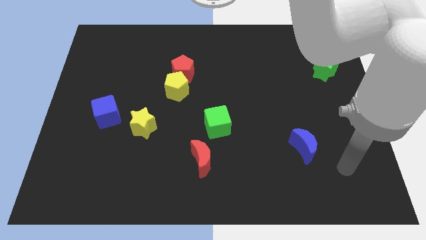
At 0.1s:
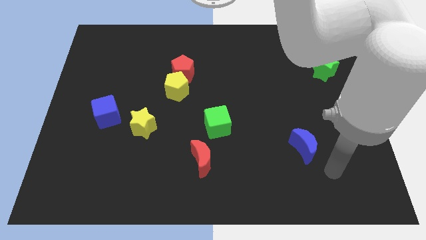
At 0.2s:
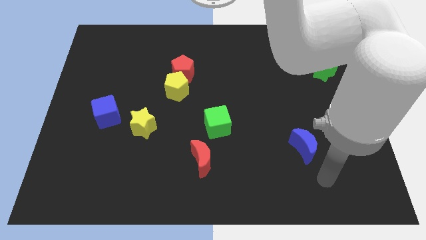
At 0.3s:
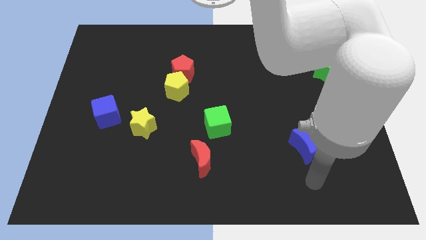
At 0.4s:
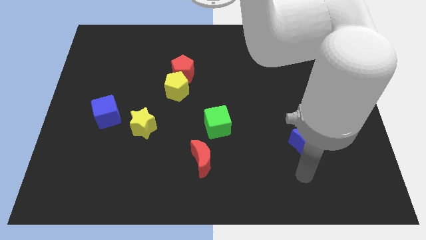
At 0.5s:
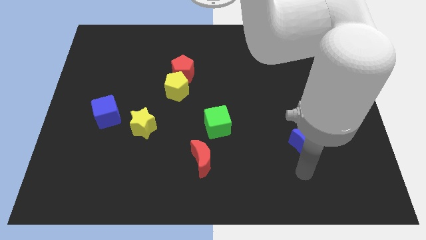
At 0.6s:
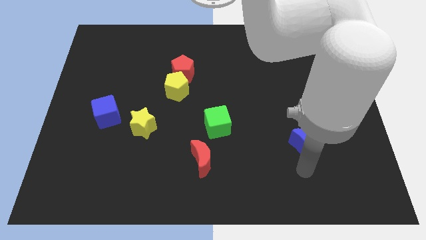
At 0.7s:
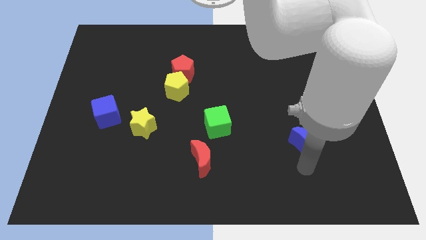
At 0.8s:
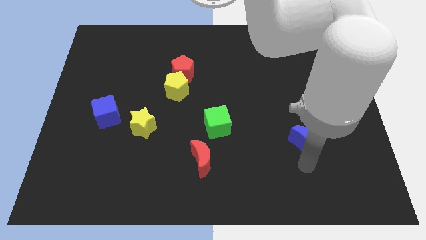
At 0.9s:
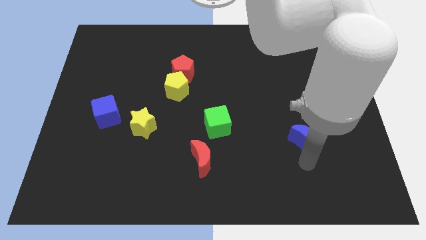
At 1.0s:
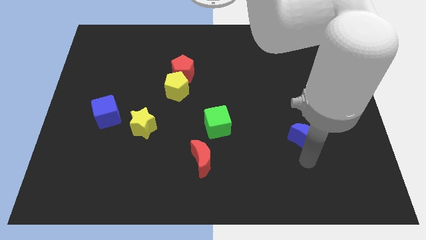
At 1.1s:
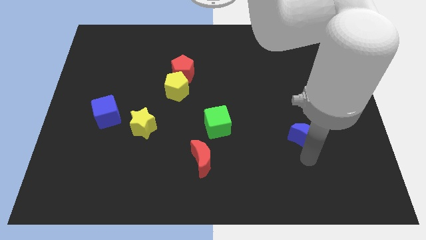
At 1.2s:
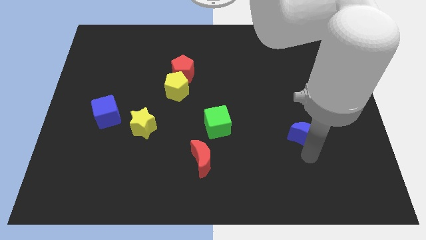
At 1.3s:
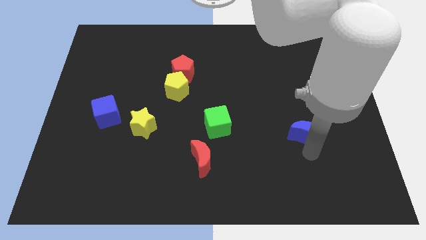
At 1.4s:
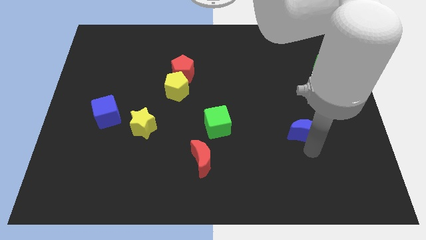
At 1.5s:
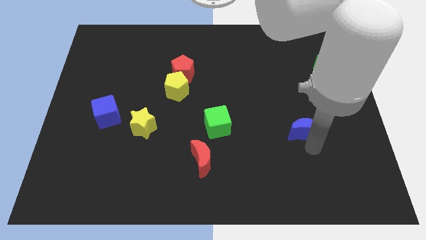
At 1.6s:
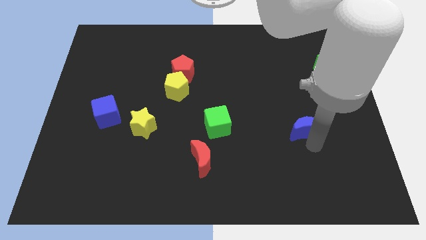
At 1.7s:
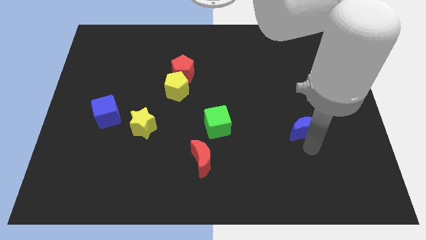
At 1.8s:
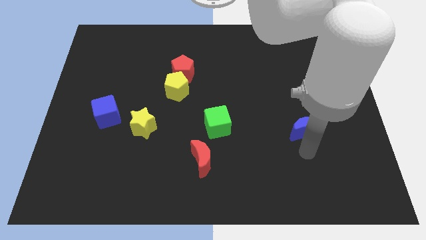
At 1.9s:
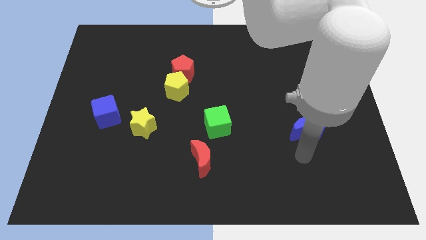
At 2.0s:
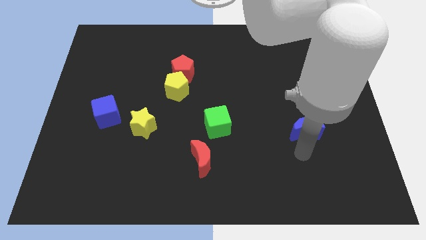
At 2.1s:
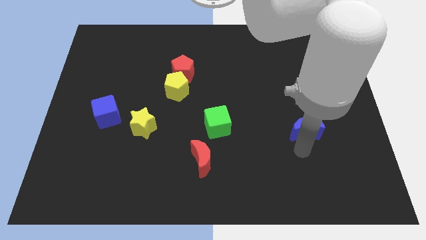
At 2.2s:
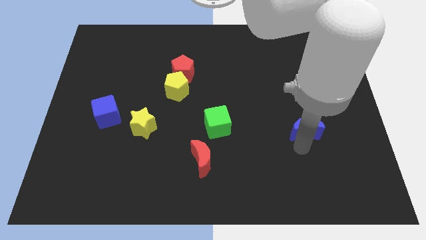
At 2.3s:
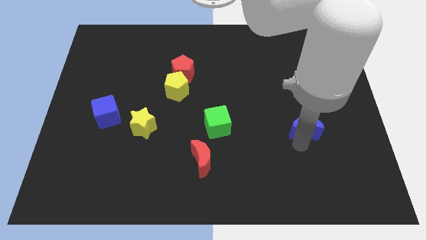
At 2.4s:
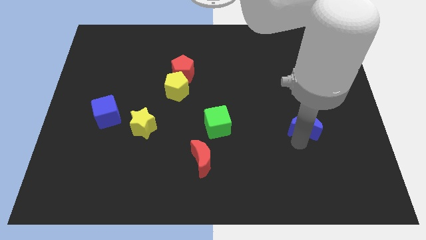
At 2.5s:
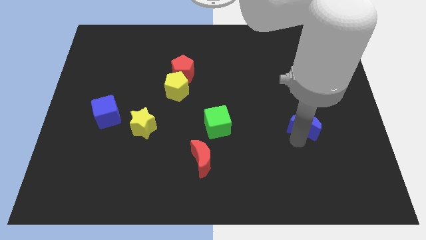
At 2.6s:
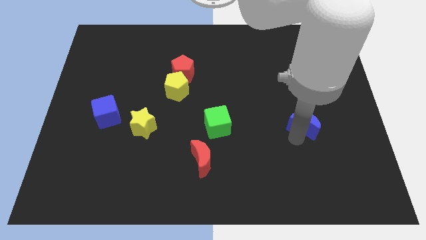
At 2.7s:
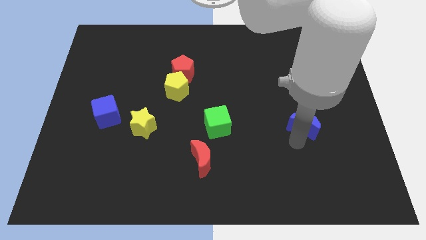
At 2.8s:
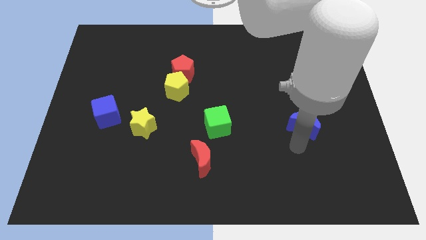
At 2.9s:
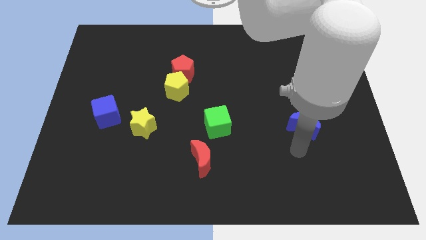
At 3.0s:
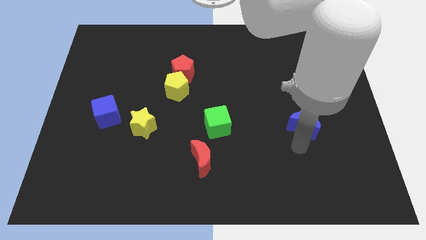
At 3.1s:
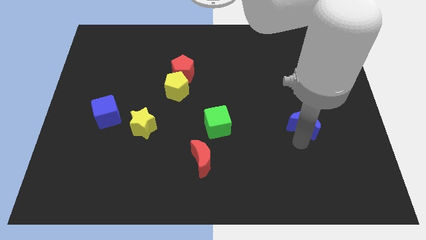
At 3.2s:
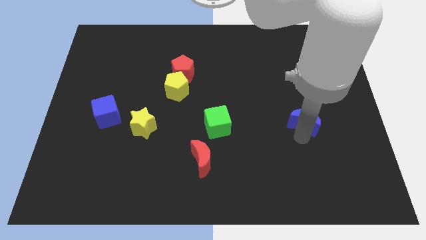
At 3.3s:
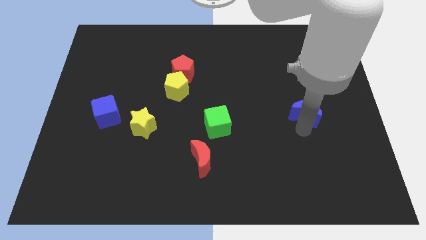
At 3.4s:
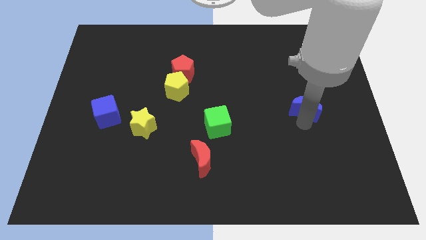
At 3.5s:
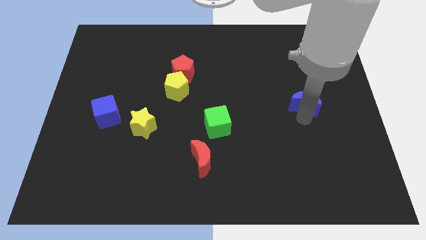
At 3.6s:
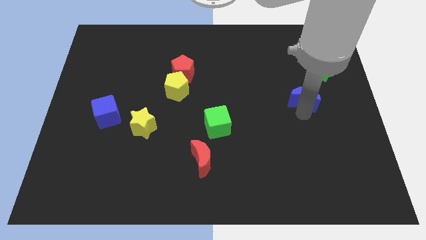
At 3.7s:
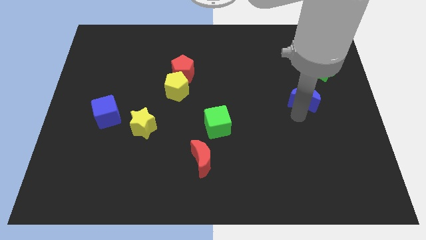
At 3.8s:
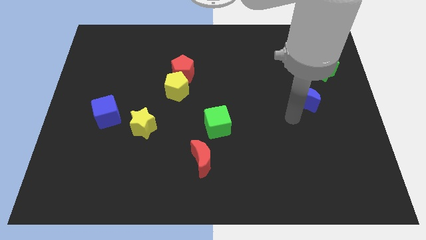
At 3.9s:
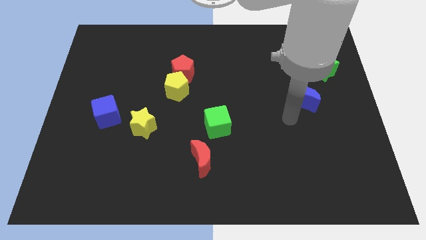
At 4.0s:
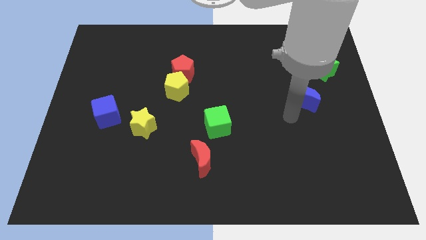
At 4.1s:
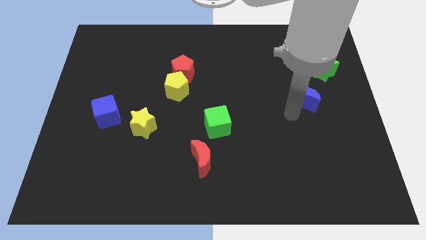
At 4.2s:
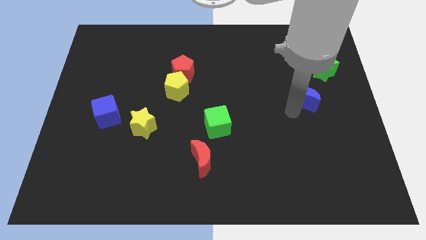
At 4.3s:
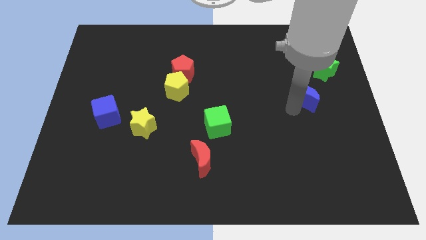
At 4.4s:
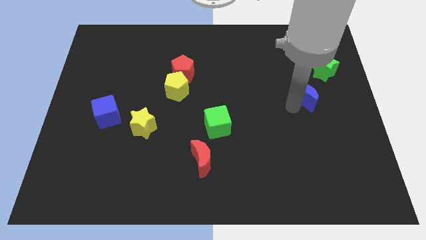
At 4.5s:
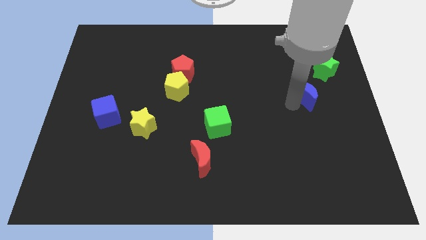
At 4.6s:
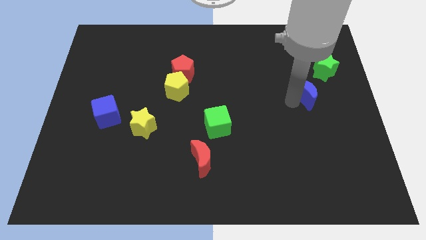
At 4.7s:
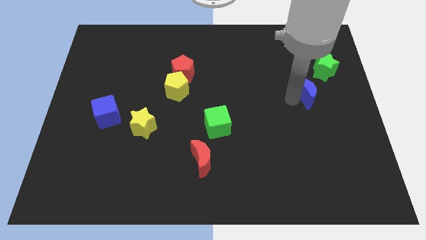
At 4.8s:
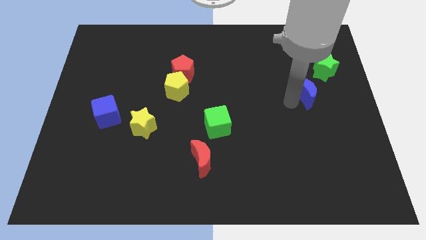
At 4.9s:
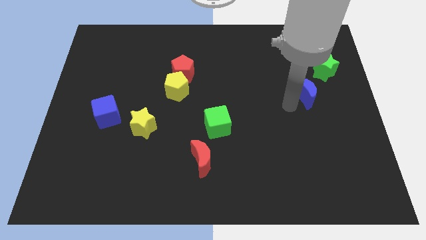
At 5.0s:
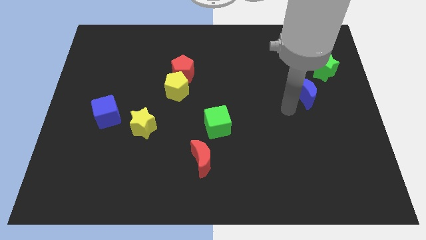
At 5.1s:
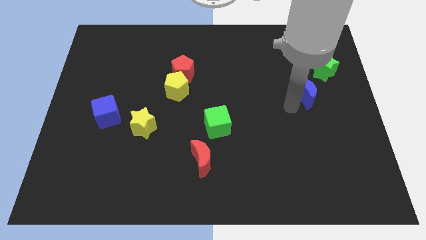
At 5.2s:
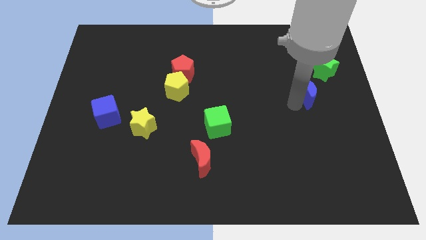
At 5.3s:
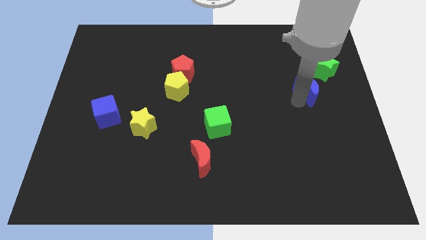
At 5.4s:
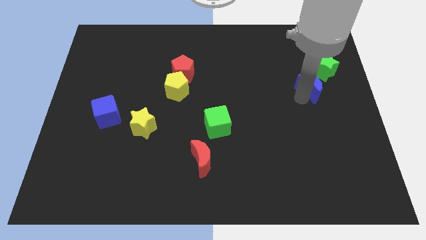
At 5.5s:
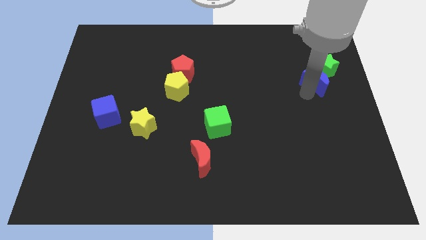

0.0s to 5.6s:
move the blue moon towards the green star

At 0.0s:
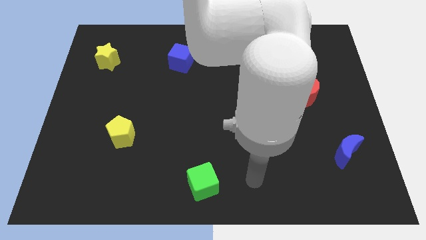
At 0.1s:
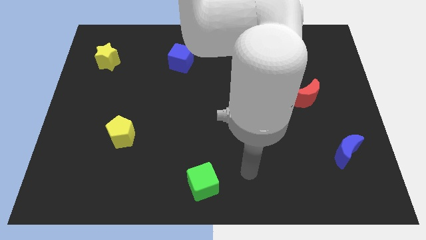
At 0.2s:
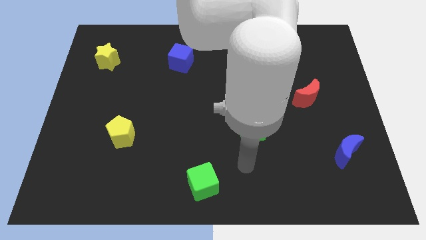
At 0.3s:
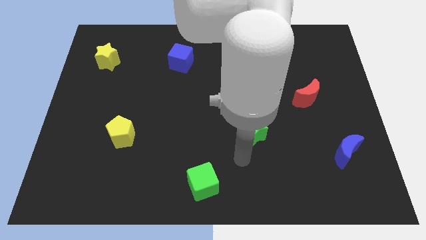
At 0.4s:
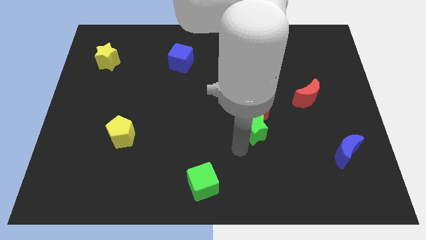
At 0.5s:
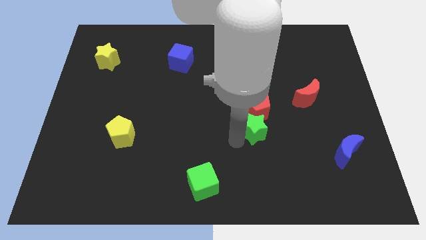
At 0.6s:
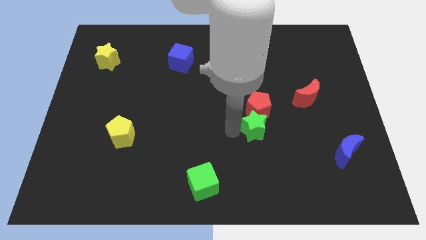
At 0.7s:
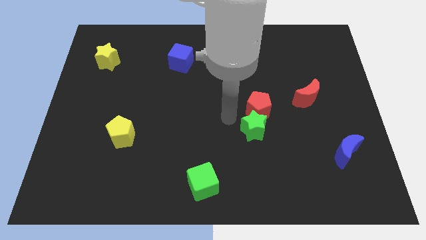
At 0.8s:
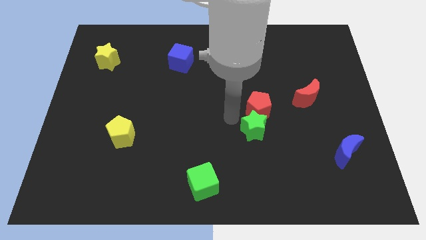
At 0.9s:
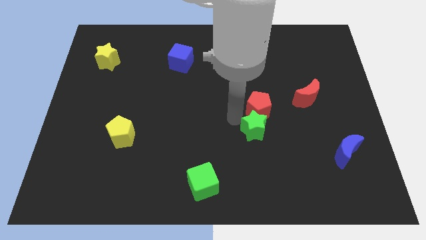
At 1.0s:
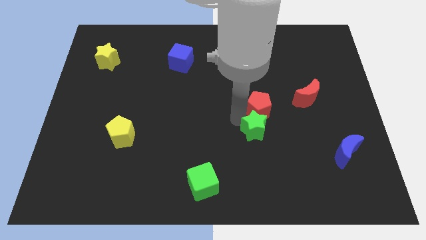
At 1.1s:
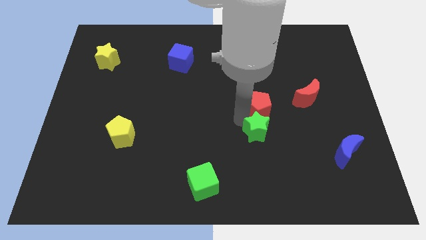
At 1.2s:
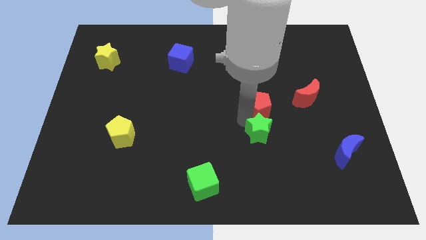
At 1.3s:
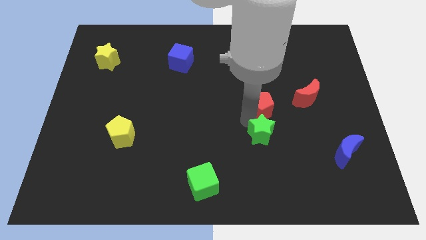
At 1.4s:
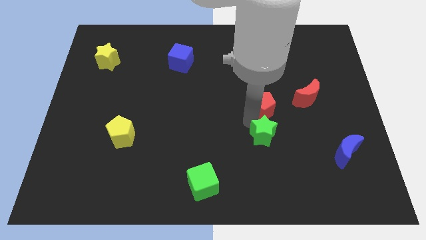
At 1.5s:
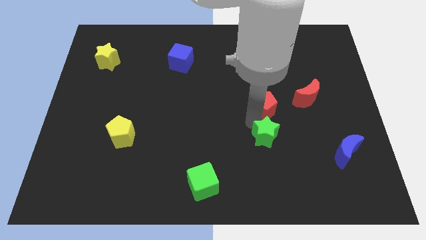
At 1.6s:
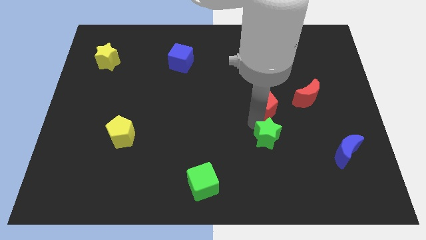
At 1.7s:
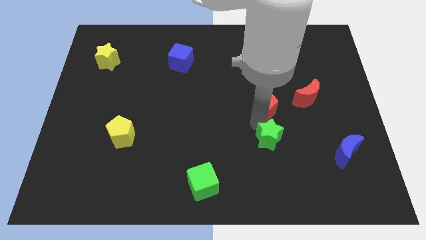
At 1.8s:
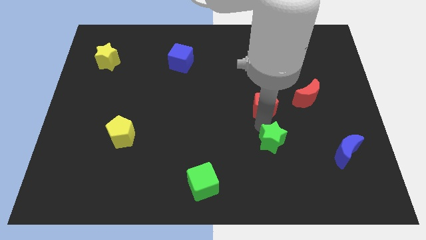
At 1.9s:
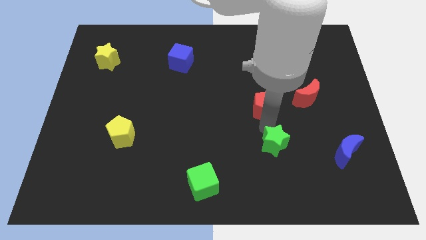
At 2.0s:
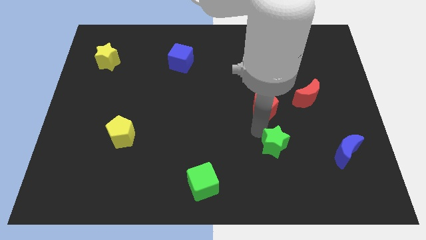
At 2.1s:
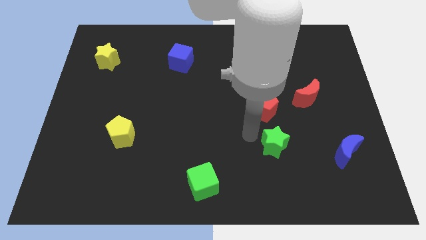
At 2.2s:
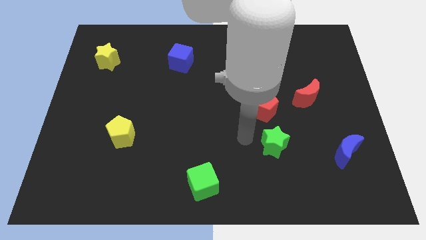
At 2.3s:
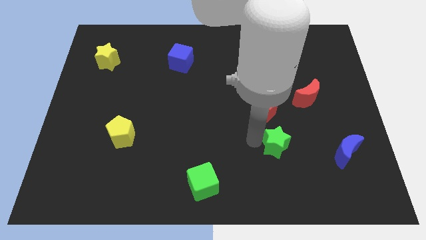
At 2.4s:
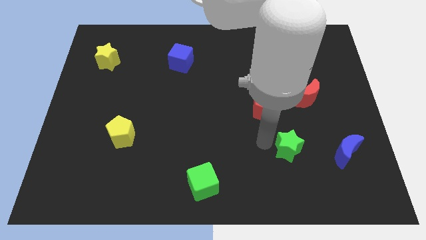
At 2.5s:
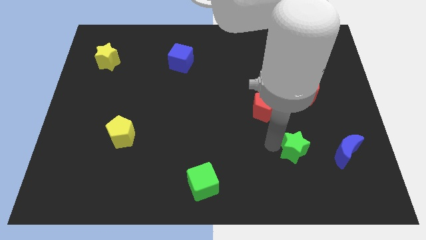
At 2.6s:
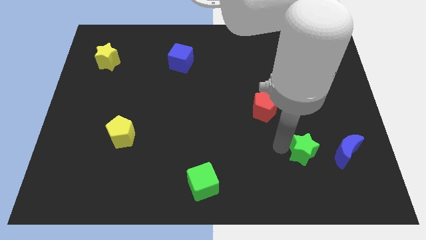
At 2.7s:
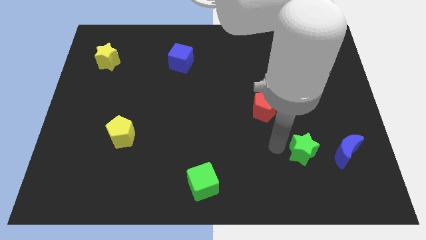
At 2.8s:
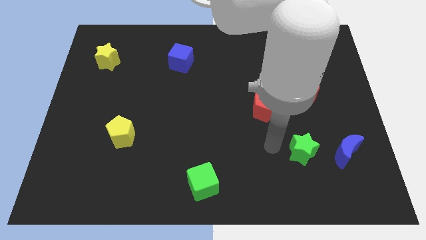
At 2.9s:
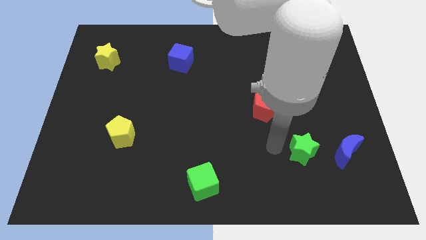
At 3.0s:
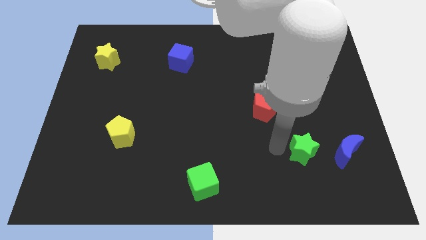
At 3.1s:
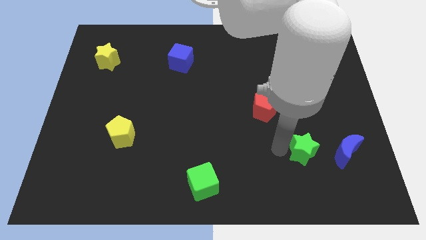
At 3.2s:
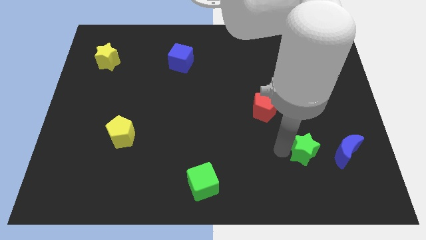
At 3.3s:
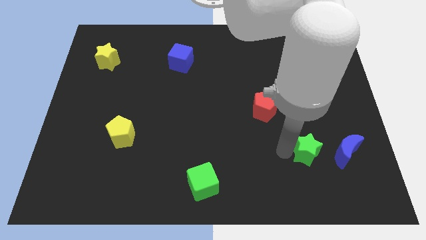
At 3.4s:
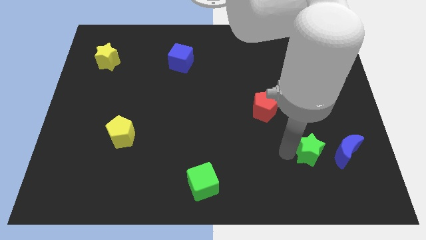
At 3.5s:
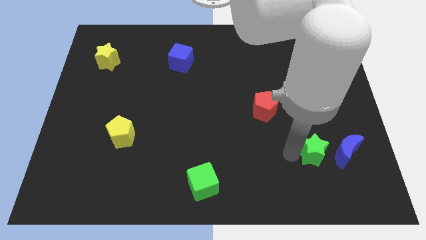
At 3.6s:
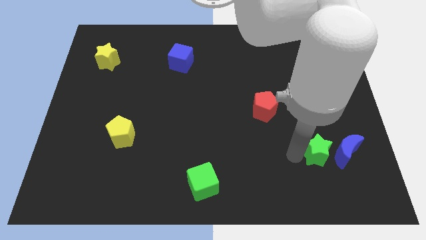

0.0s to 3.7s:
move the green star towards the blue moon
